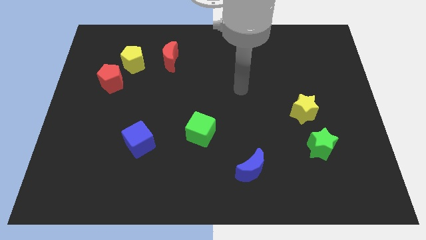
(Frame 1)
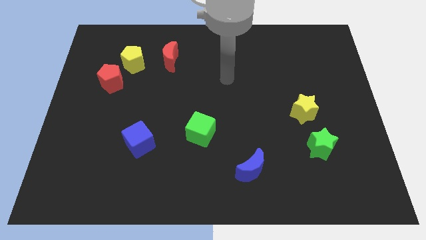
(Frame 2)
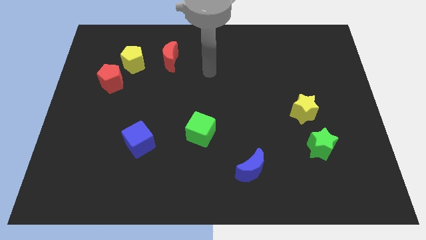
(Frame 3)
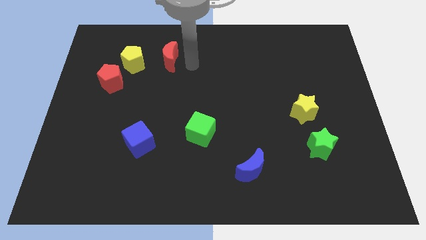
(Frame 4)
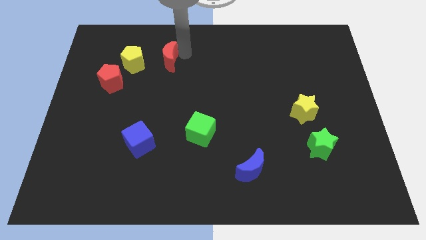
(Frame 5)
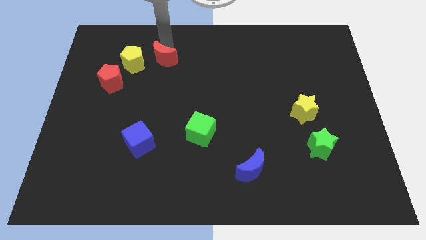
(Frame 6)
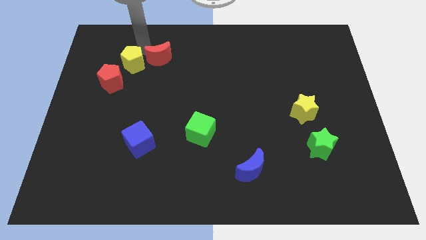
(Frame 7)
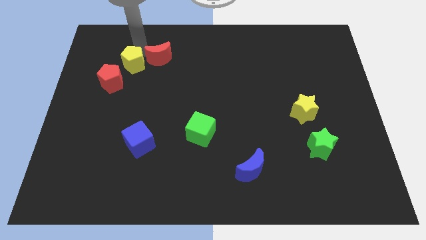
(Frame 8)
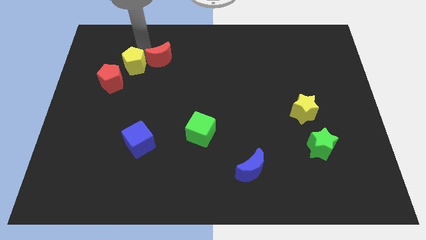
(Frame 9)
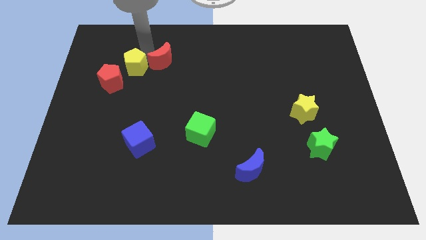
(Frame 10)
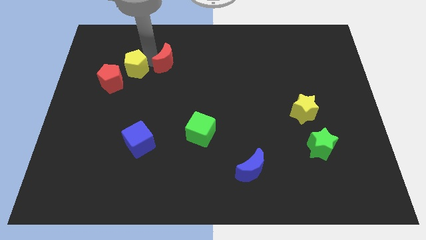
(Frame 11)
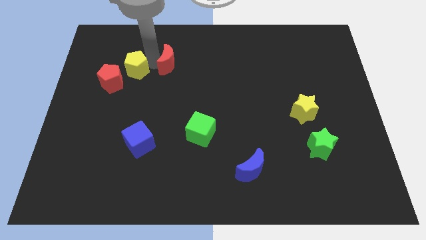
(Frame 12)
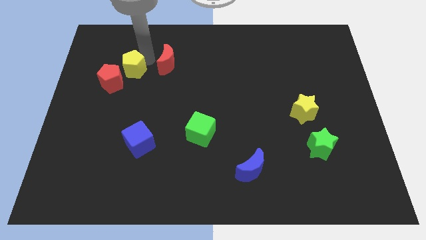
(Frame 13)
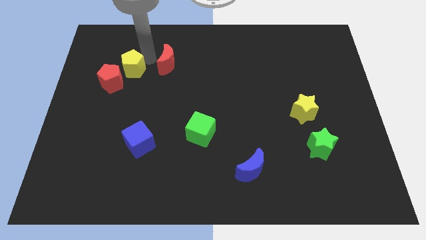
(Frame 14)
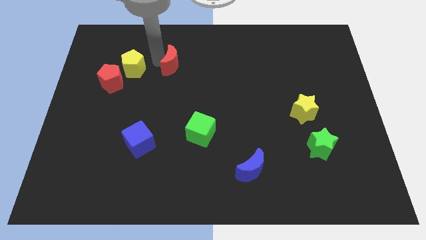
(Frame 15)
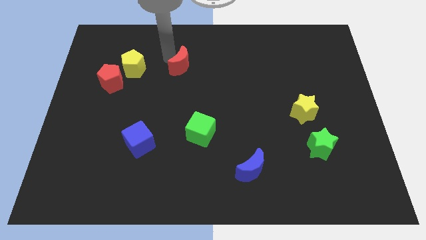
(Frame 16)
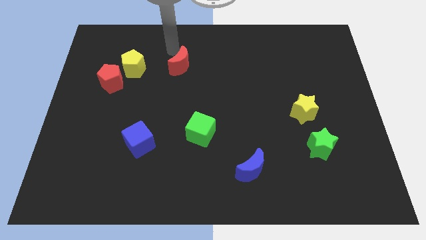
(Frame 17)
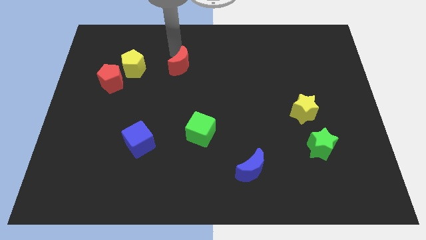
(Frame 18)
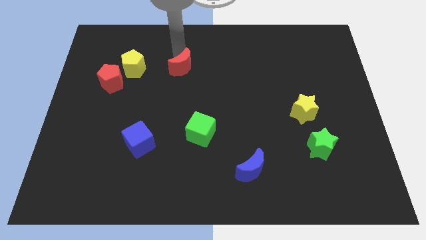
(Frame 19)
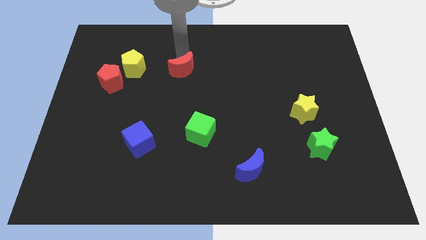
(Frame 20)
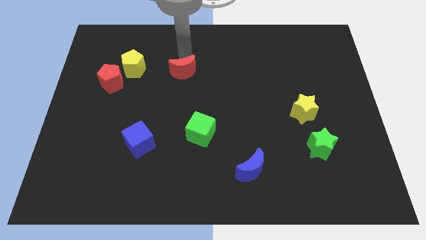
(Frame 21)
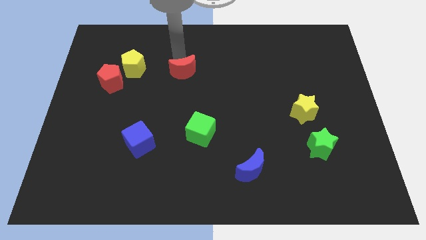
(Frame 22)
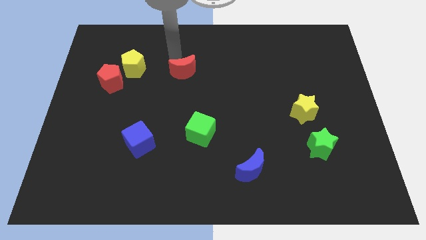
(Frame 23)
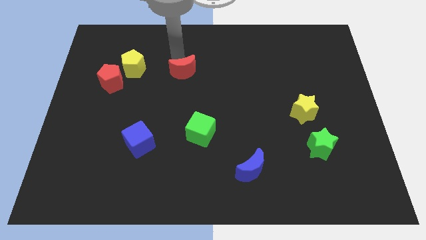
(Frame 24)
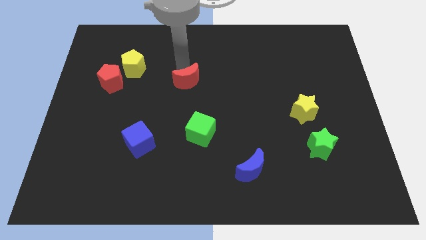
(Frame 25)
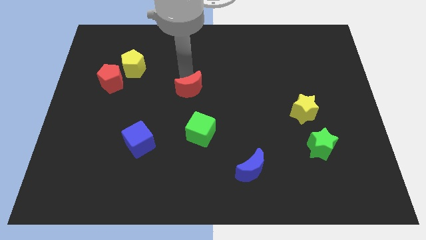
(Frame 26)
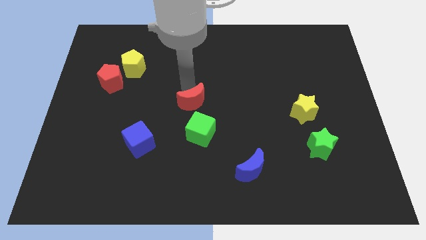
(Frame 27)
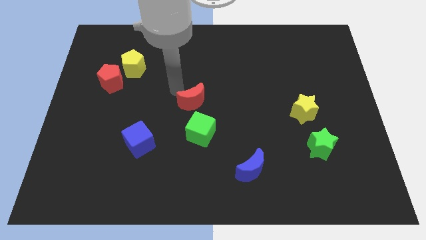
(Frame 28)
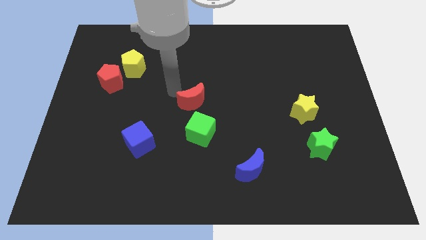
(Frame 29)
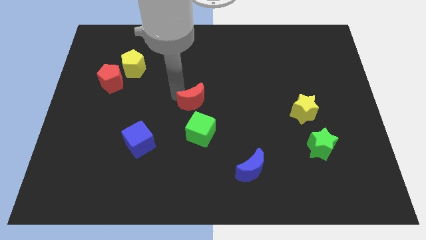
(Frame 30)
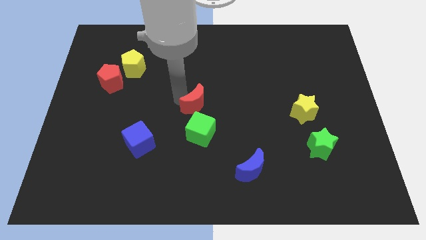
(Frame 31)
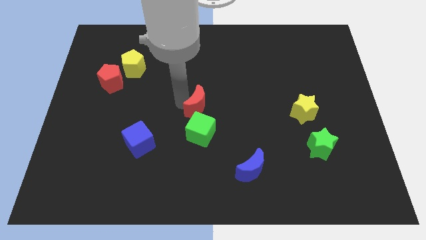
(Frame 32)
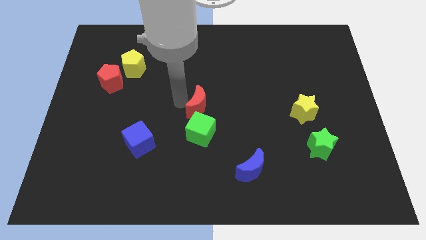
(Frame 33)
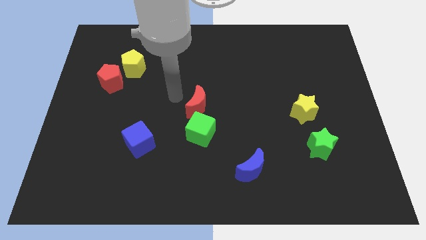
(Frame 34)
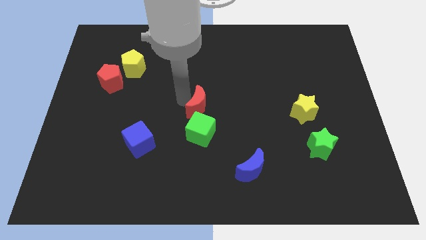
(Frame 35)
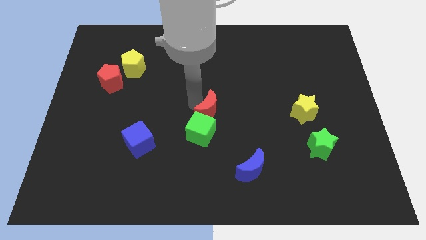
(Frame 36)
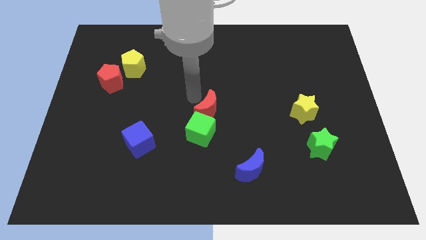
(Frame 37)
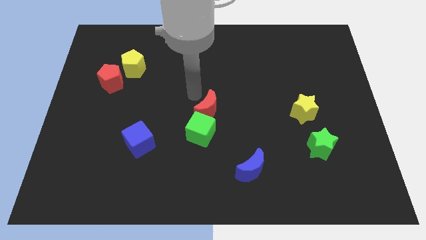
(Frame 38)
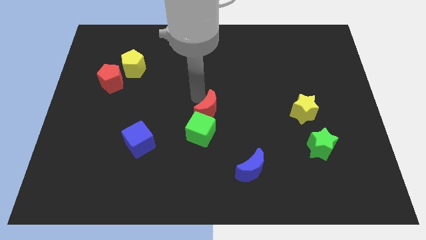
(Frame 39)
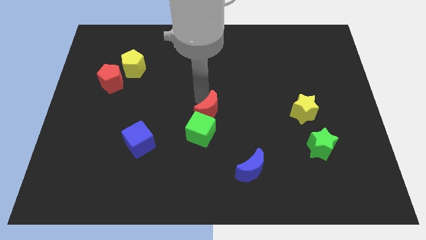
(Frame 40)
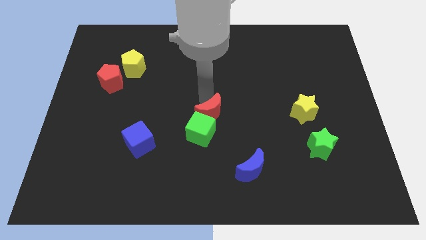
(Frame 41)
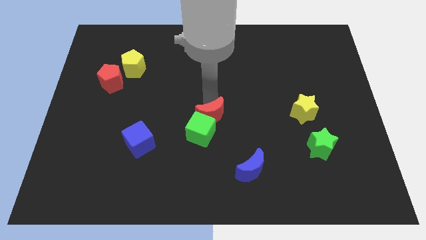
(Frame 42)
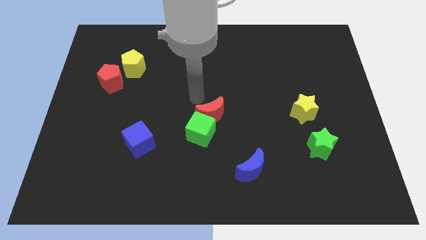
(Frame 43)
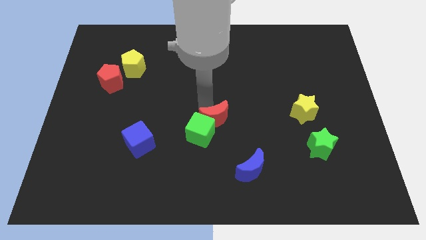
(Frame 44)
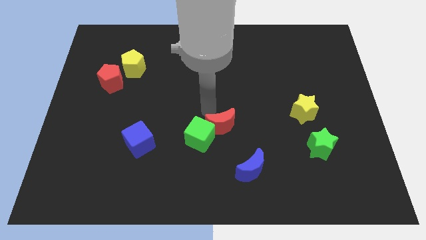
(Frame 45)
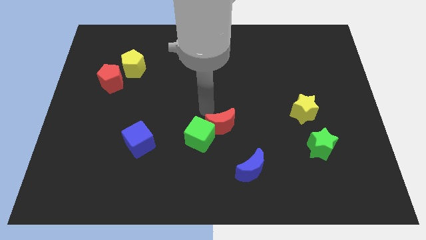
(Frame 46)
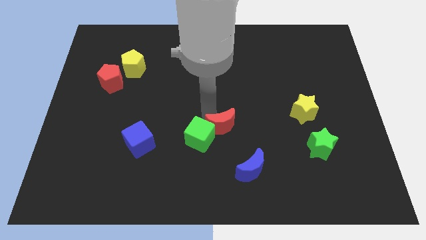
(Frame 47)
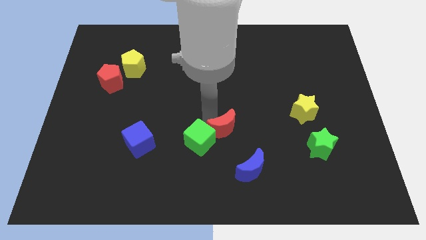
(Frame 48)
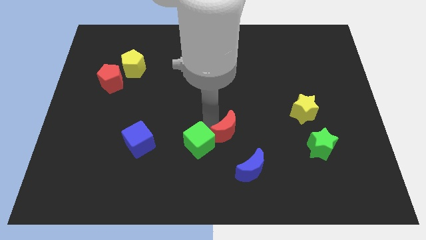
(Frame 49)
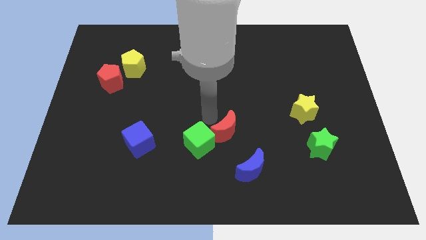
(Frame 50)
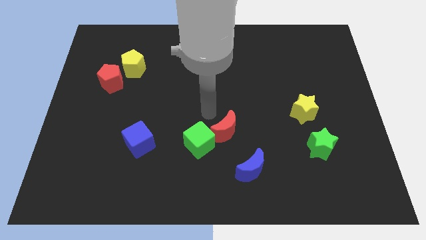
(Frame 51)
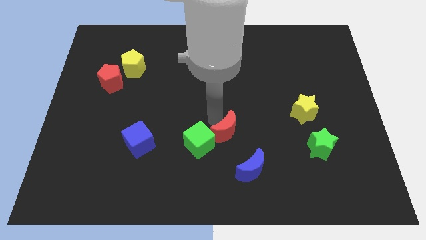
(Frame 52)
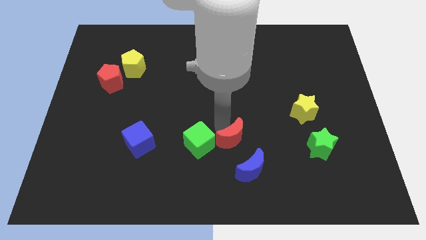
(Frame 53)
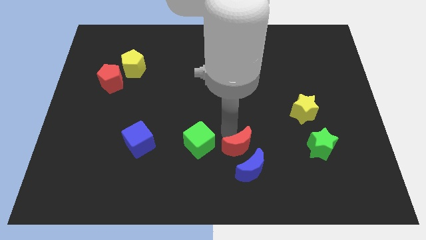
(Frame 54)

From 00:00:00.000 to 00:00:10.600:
move the red moon close to the blue moon

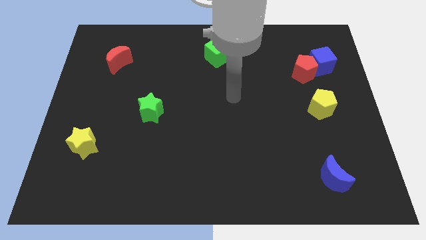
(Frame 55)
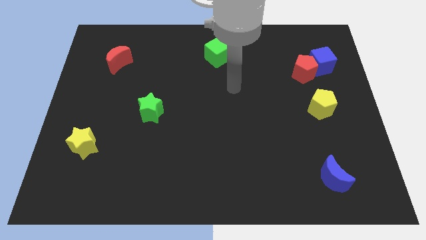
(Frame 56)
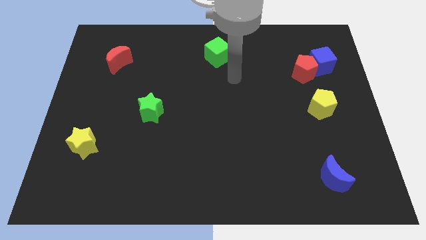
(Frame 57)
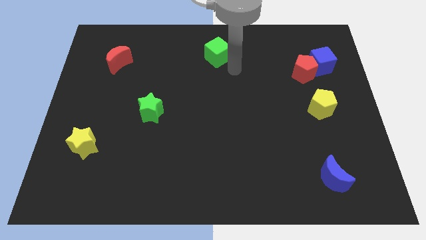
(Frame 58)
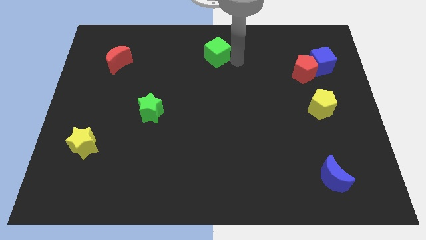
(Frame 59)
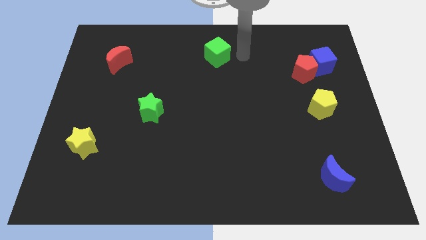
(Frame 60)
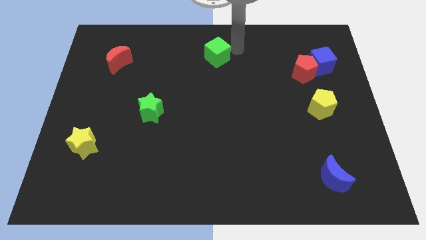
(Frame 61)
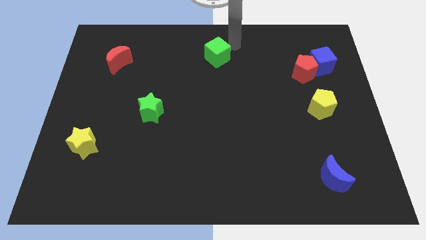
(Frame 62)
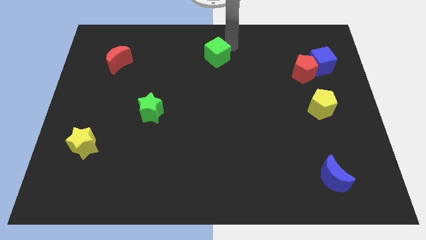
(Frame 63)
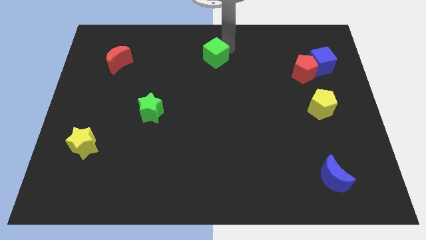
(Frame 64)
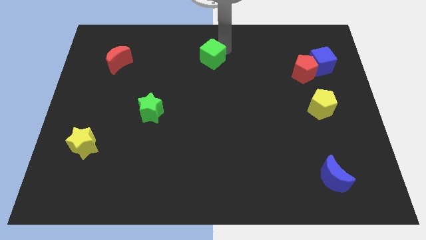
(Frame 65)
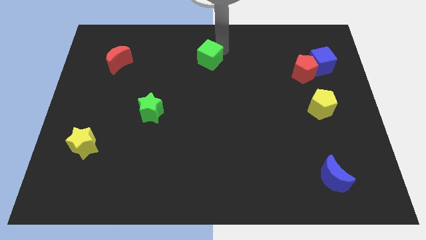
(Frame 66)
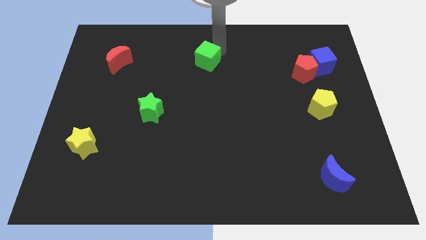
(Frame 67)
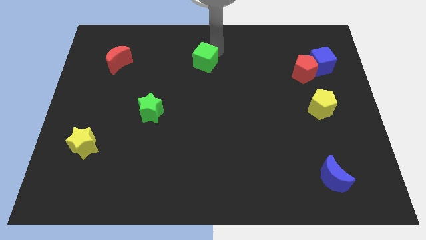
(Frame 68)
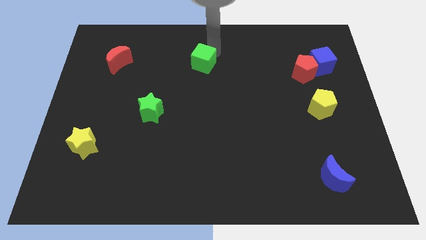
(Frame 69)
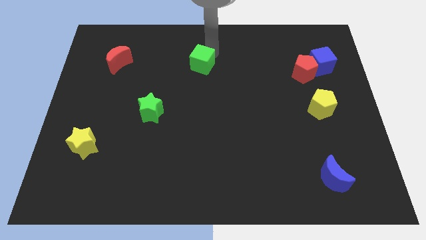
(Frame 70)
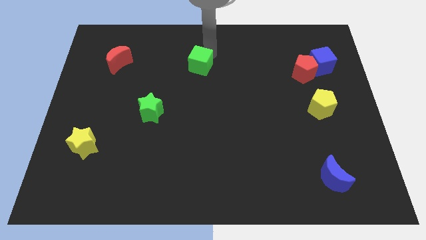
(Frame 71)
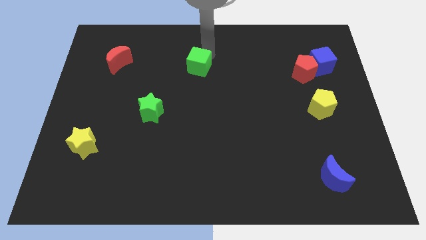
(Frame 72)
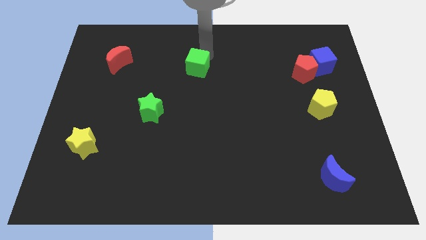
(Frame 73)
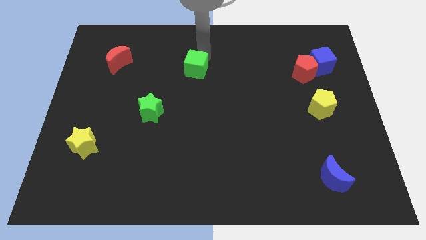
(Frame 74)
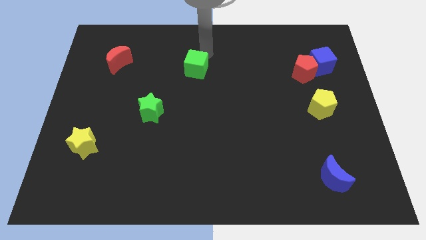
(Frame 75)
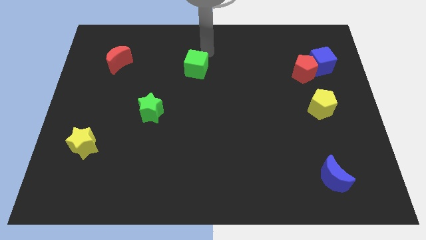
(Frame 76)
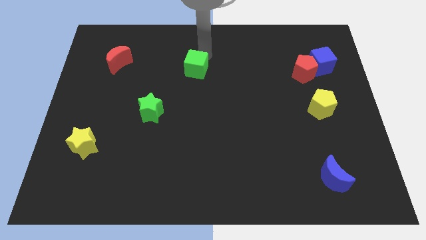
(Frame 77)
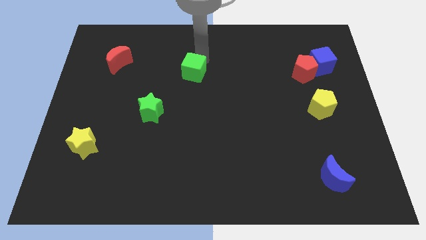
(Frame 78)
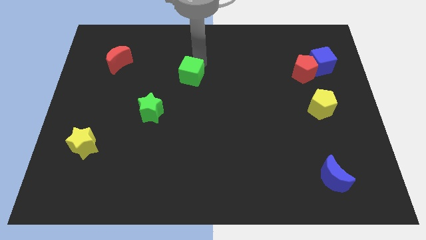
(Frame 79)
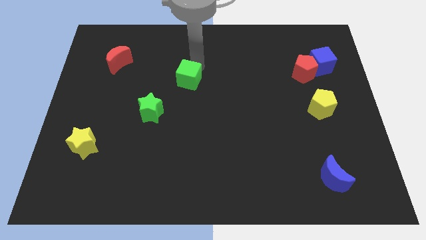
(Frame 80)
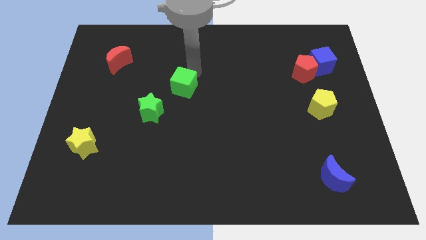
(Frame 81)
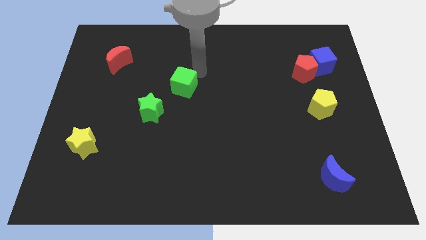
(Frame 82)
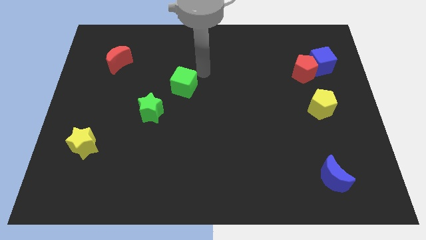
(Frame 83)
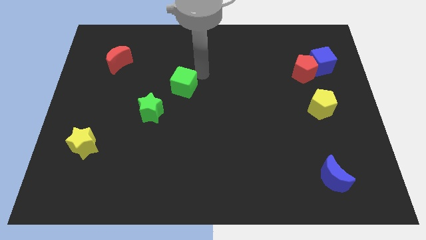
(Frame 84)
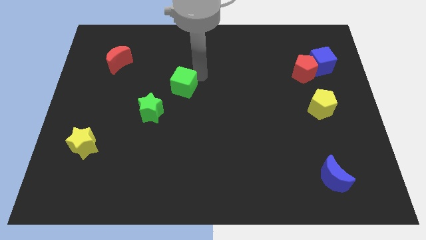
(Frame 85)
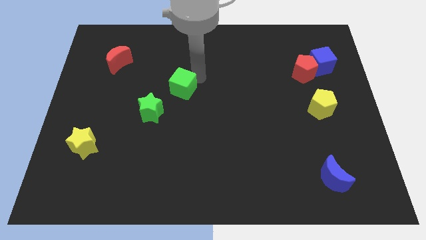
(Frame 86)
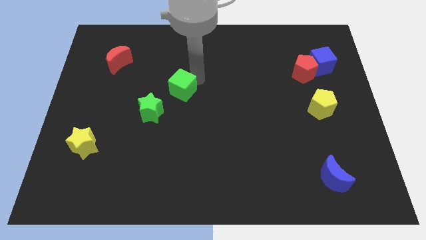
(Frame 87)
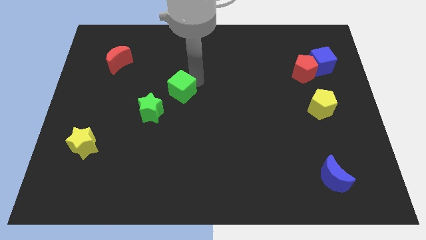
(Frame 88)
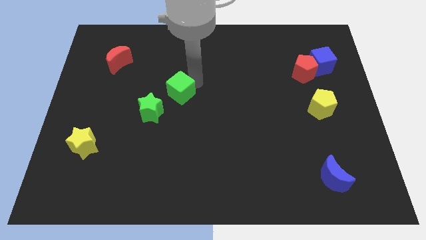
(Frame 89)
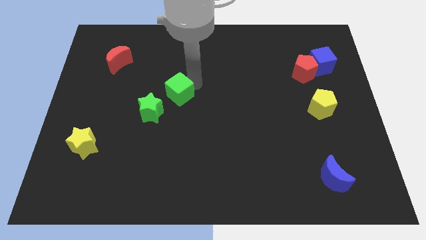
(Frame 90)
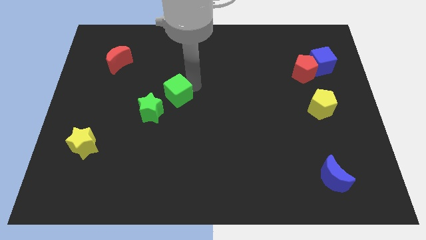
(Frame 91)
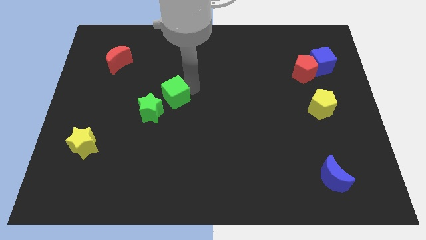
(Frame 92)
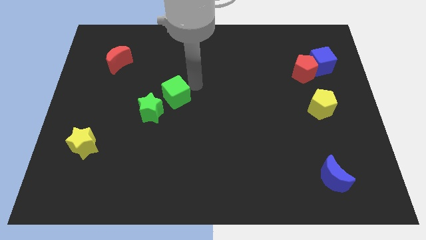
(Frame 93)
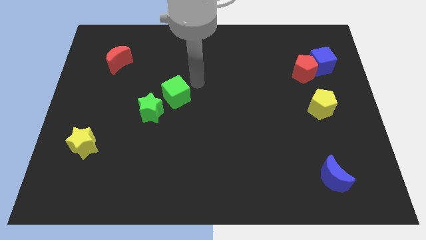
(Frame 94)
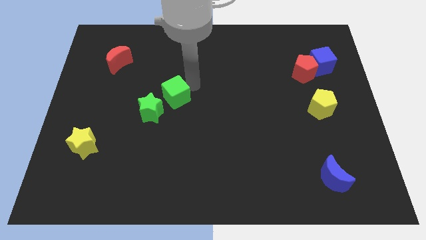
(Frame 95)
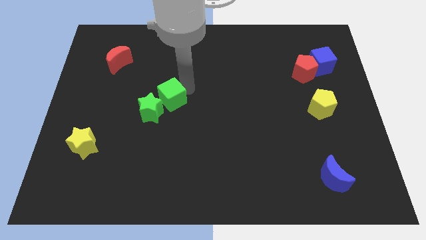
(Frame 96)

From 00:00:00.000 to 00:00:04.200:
slide the green cube next to the green star
